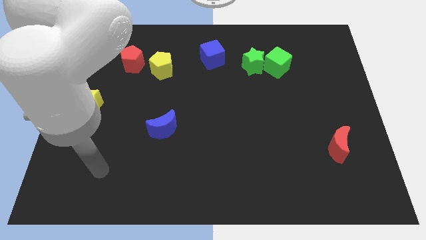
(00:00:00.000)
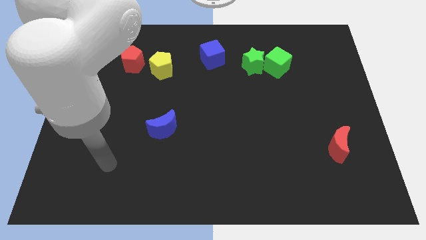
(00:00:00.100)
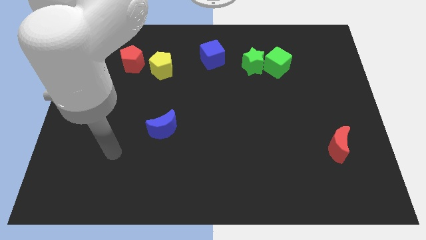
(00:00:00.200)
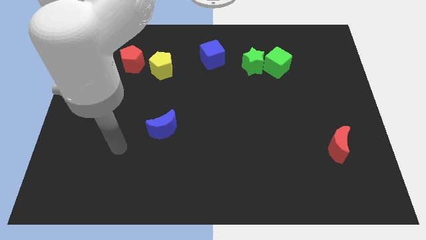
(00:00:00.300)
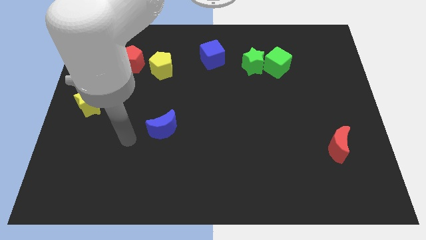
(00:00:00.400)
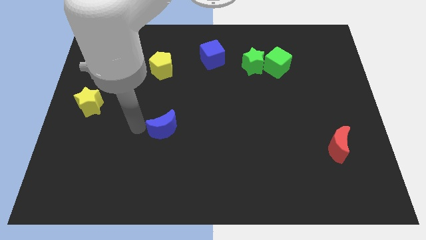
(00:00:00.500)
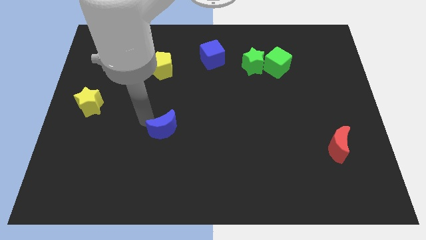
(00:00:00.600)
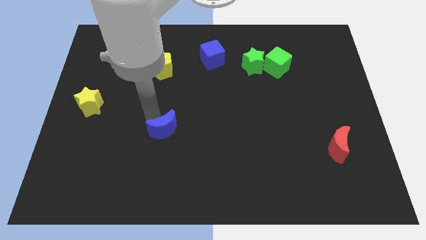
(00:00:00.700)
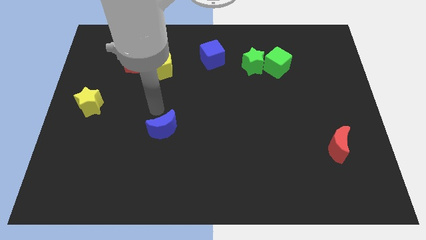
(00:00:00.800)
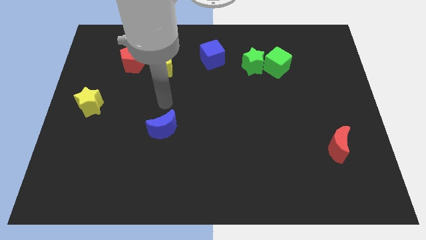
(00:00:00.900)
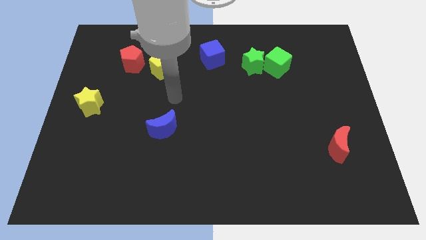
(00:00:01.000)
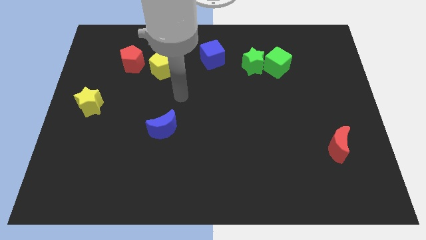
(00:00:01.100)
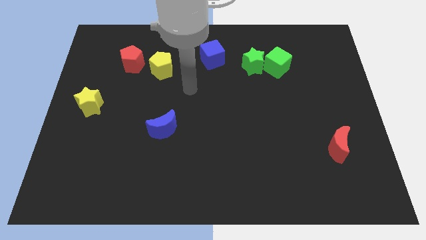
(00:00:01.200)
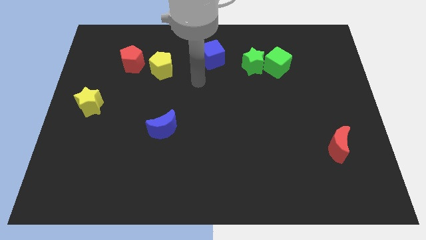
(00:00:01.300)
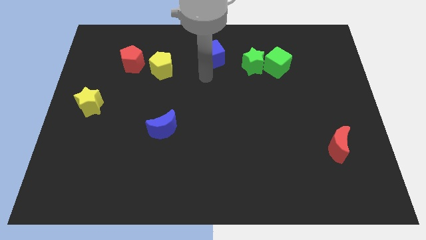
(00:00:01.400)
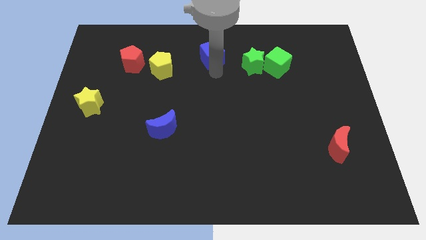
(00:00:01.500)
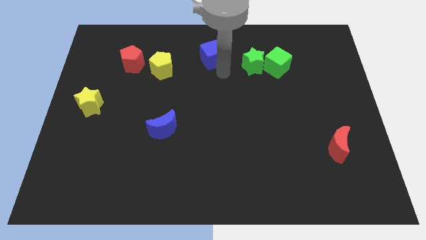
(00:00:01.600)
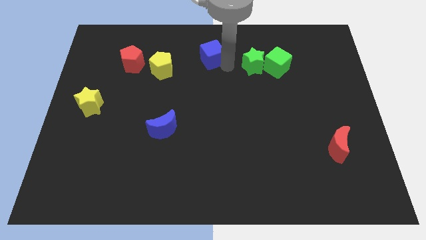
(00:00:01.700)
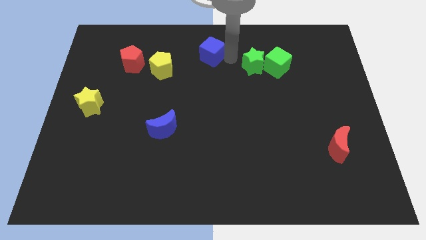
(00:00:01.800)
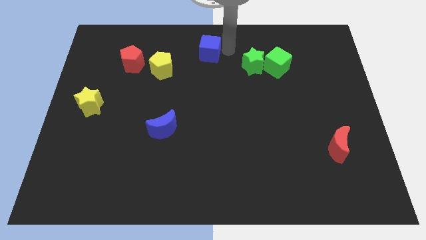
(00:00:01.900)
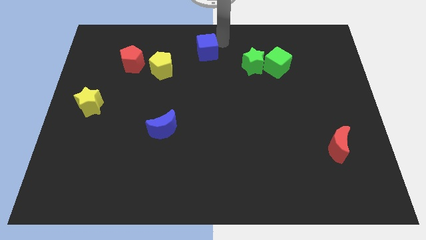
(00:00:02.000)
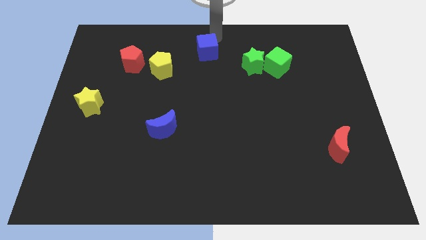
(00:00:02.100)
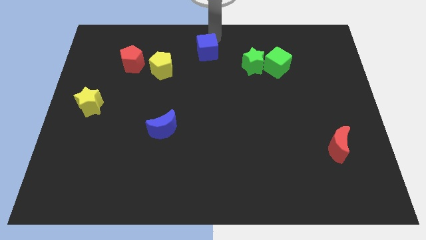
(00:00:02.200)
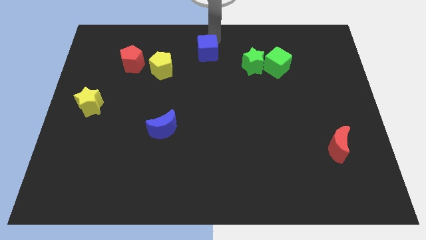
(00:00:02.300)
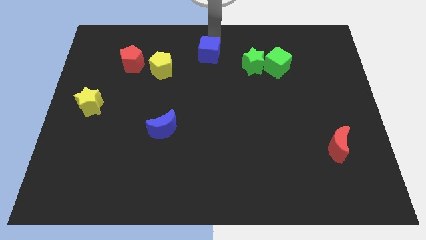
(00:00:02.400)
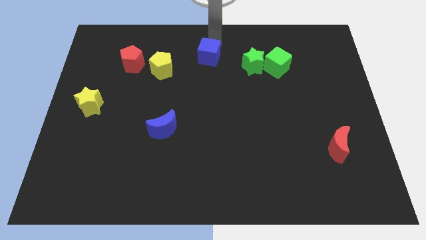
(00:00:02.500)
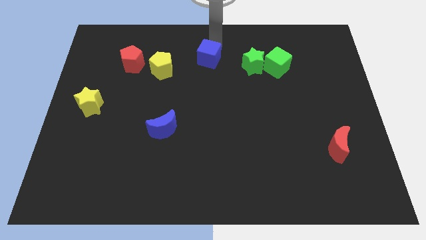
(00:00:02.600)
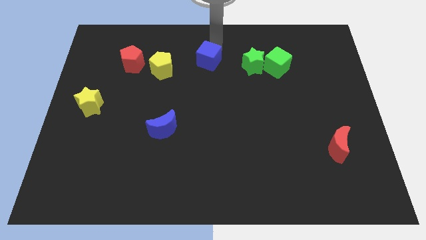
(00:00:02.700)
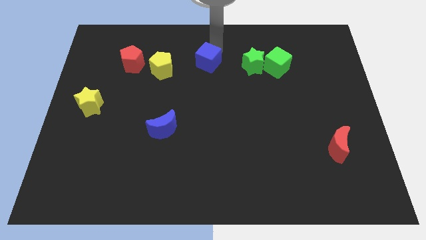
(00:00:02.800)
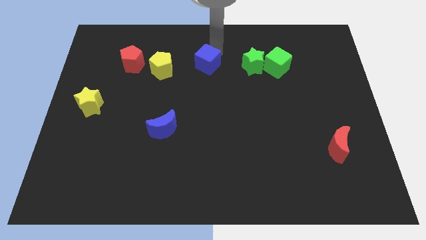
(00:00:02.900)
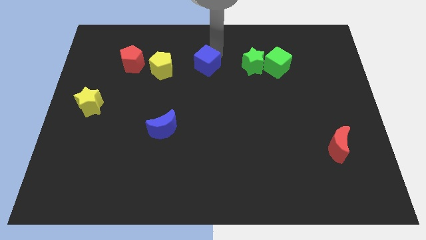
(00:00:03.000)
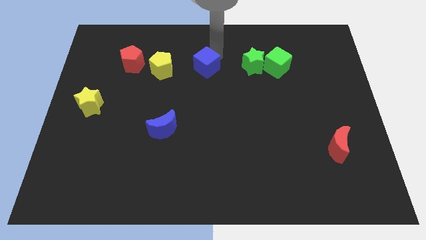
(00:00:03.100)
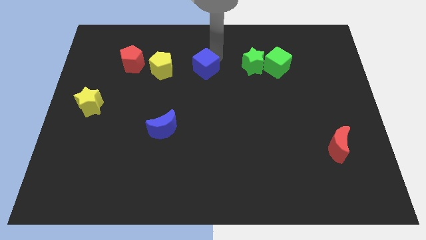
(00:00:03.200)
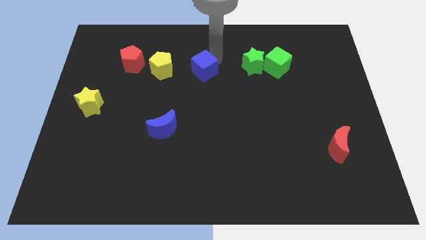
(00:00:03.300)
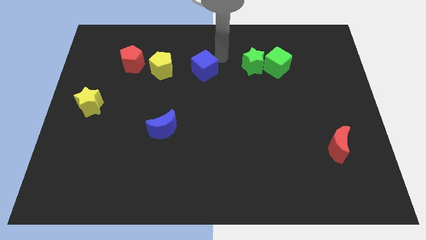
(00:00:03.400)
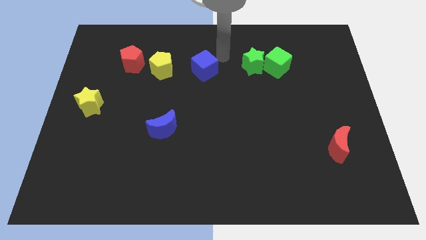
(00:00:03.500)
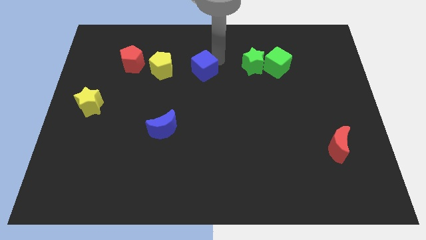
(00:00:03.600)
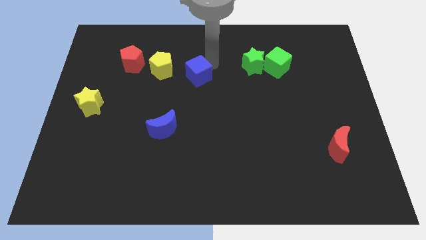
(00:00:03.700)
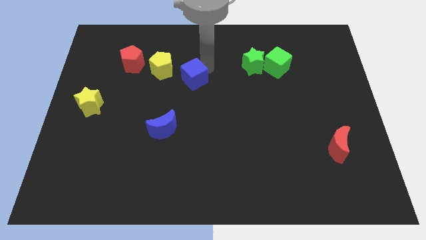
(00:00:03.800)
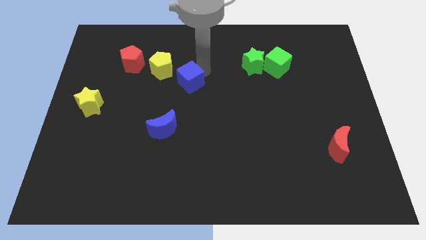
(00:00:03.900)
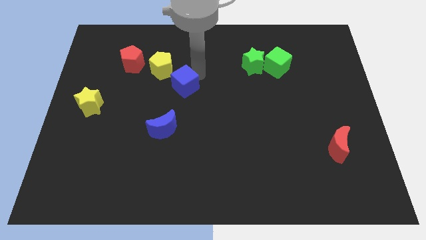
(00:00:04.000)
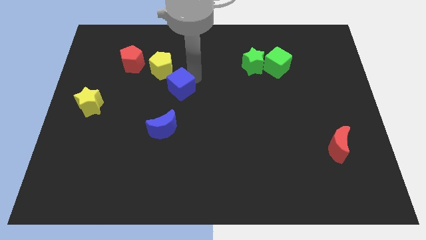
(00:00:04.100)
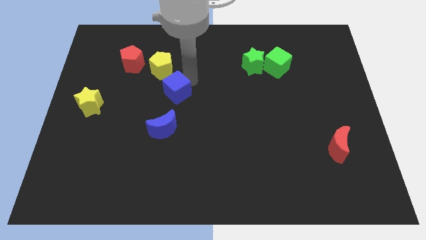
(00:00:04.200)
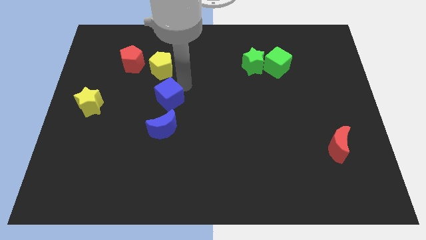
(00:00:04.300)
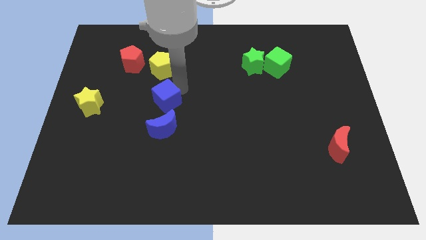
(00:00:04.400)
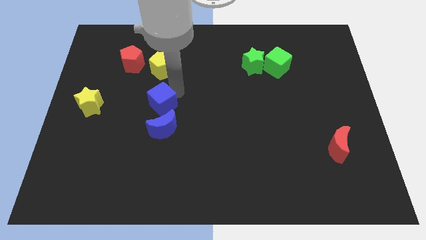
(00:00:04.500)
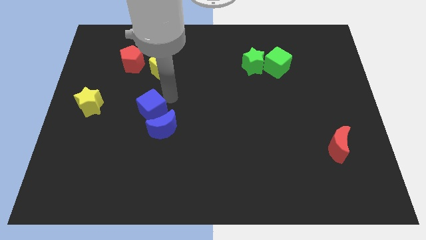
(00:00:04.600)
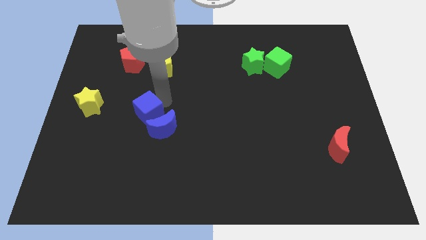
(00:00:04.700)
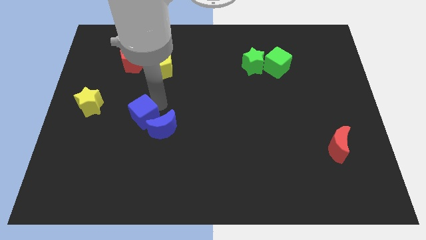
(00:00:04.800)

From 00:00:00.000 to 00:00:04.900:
put the blue cube to the left of the blue moon

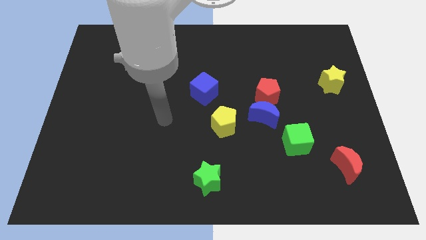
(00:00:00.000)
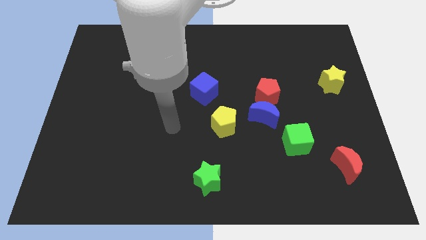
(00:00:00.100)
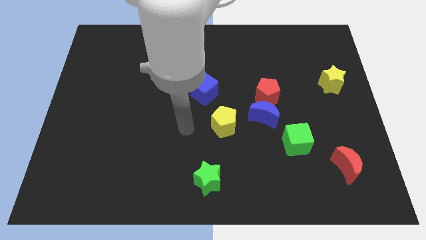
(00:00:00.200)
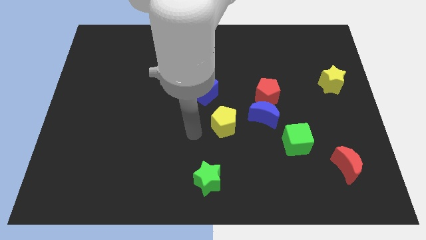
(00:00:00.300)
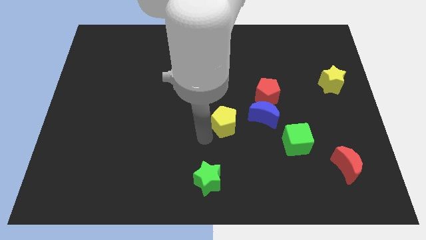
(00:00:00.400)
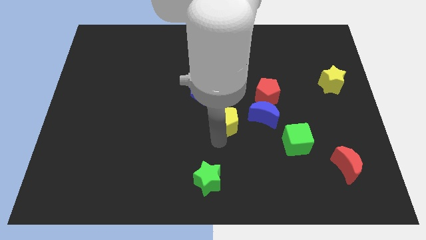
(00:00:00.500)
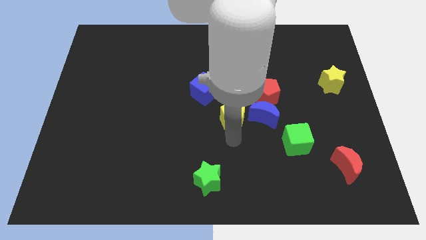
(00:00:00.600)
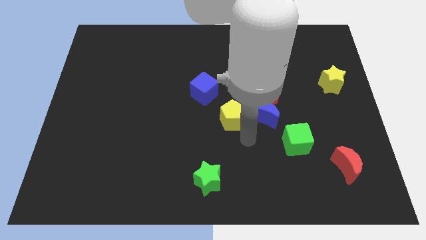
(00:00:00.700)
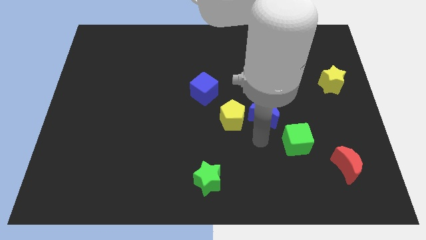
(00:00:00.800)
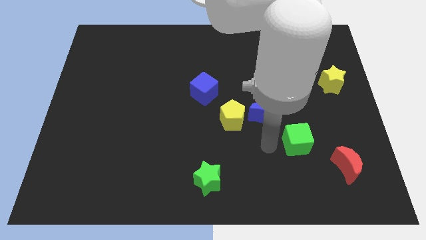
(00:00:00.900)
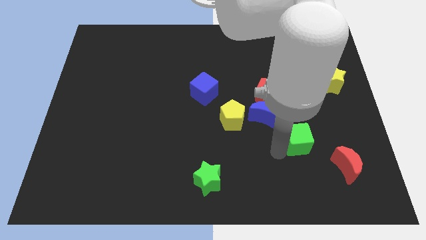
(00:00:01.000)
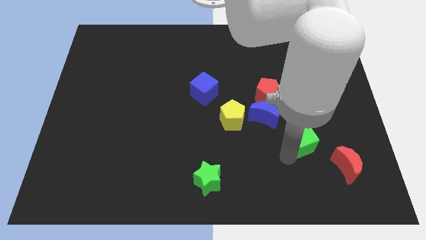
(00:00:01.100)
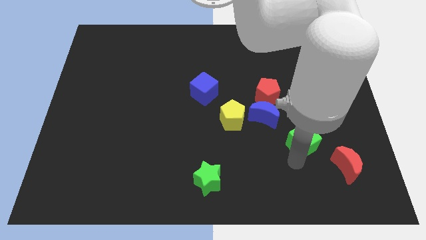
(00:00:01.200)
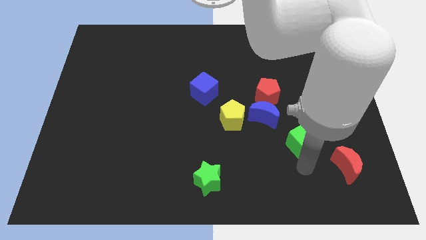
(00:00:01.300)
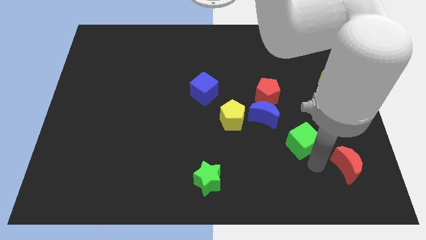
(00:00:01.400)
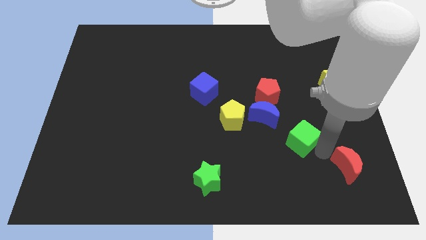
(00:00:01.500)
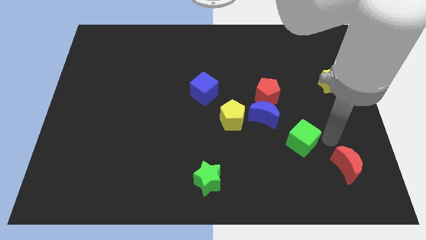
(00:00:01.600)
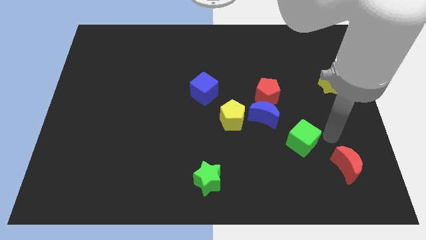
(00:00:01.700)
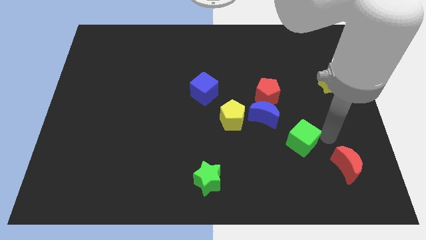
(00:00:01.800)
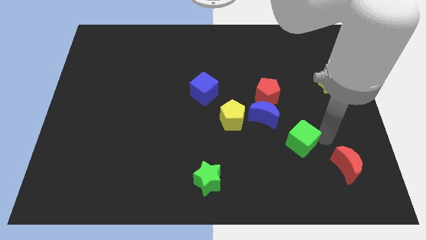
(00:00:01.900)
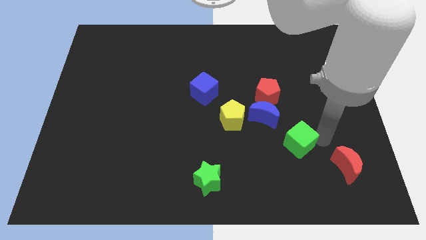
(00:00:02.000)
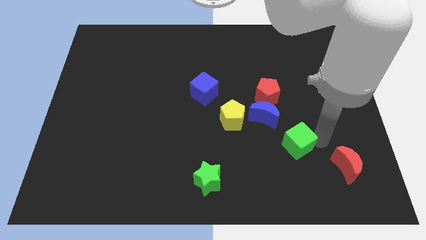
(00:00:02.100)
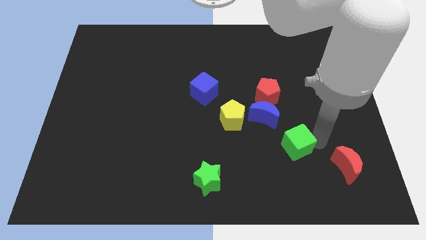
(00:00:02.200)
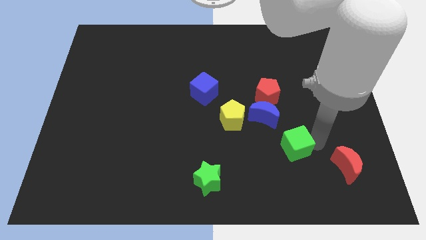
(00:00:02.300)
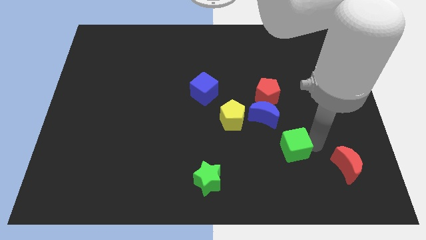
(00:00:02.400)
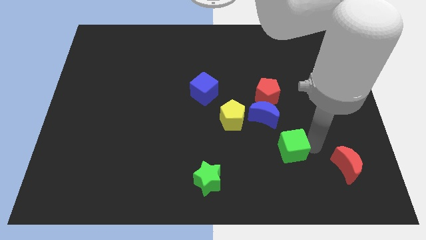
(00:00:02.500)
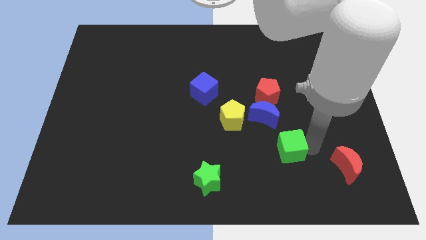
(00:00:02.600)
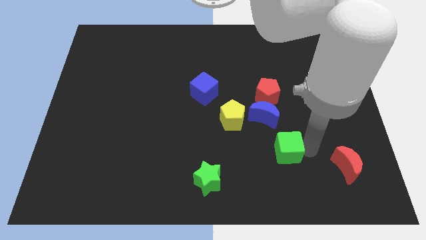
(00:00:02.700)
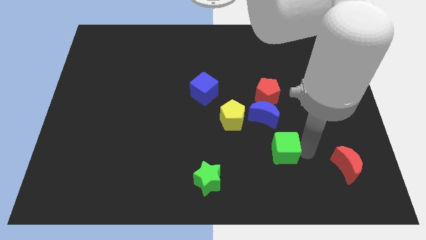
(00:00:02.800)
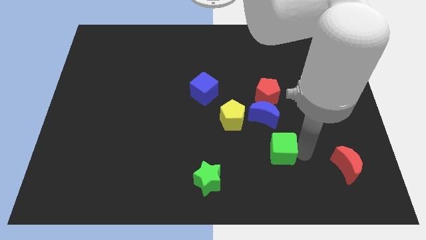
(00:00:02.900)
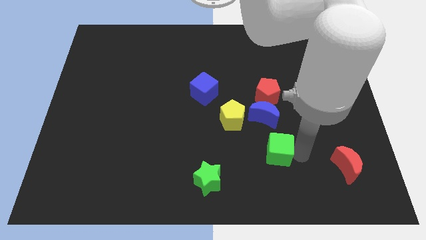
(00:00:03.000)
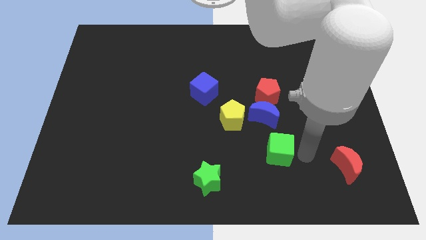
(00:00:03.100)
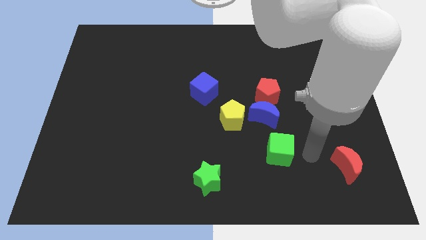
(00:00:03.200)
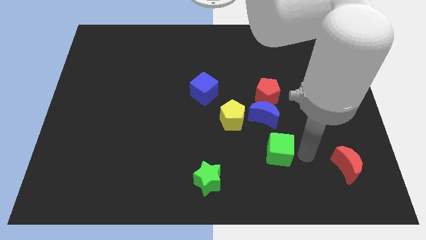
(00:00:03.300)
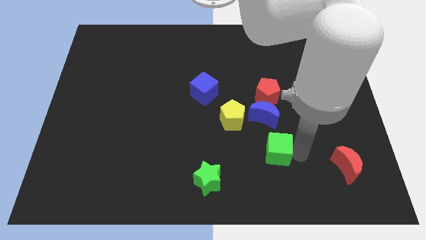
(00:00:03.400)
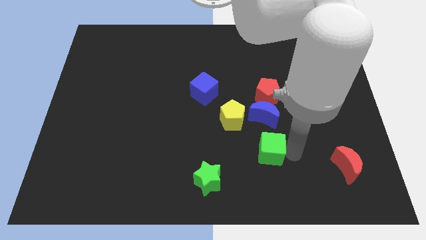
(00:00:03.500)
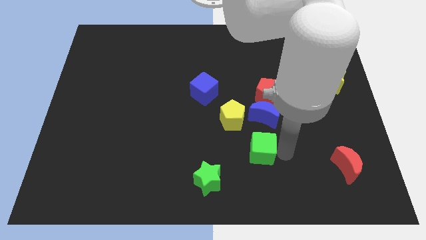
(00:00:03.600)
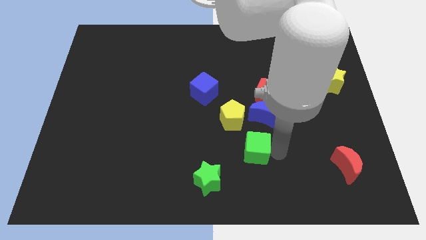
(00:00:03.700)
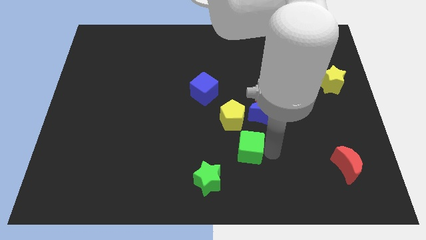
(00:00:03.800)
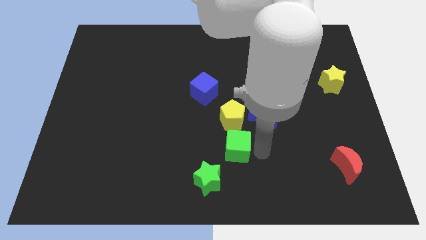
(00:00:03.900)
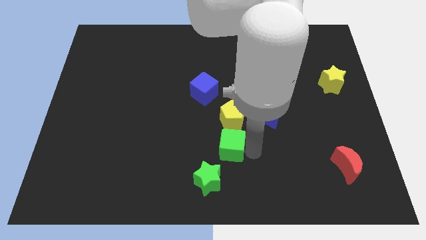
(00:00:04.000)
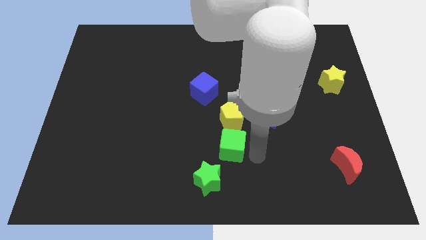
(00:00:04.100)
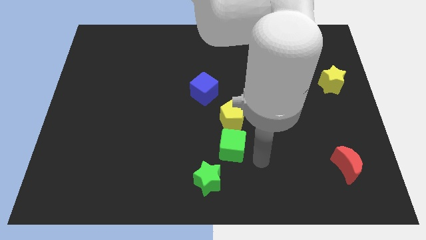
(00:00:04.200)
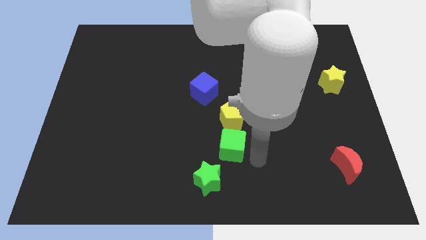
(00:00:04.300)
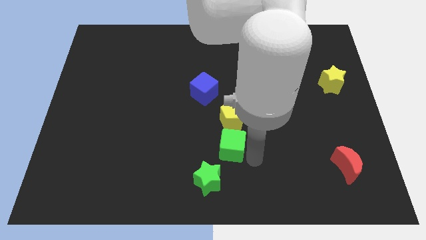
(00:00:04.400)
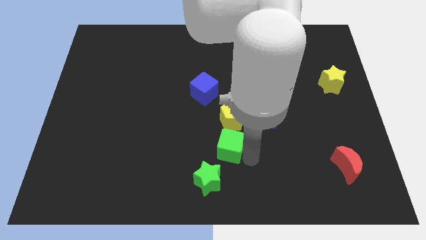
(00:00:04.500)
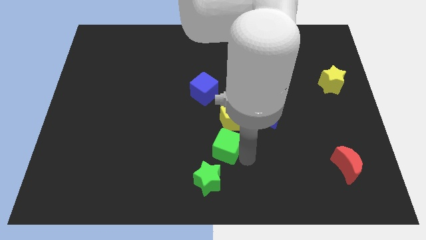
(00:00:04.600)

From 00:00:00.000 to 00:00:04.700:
push the green cube to the bottom left of the yellow pentagon
